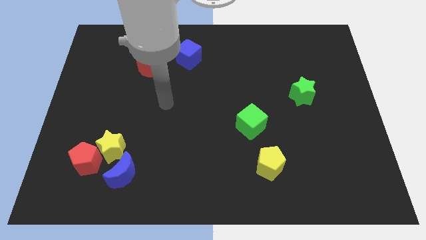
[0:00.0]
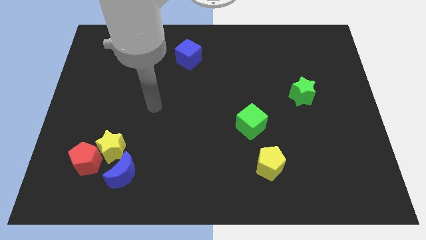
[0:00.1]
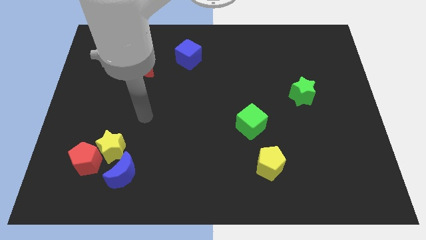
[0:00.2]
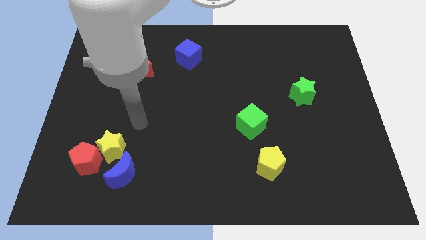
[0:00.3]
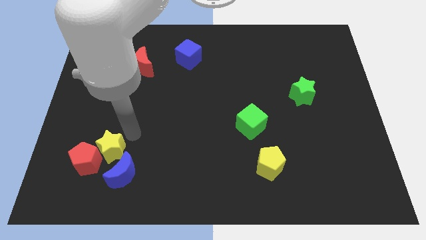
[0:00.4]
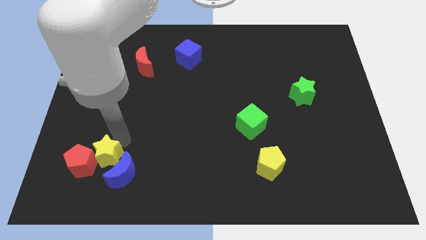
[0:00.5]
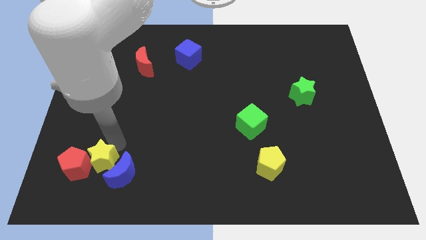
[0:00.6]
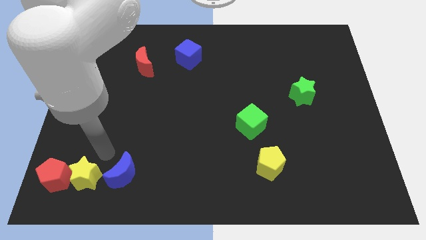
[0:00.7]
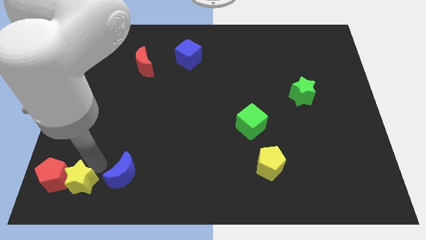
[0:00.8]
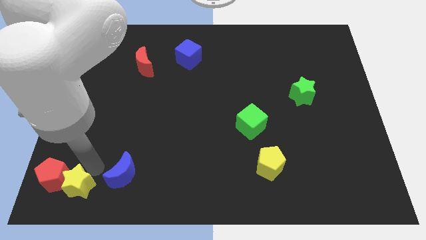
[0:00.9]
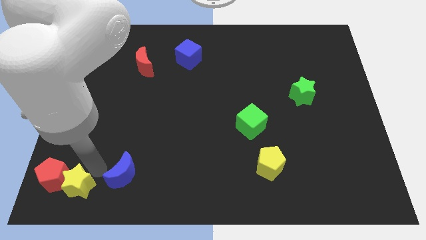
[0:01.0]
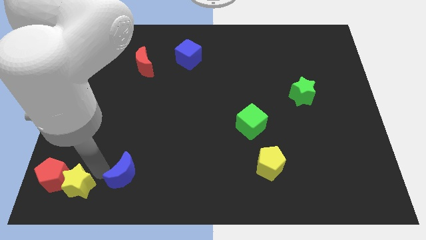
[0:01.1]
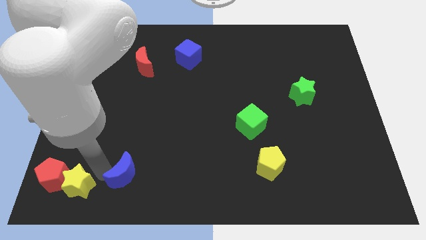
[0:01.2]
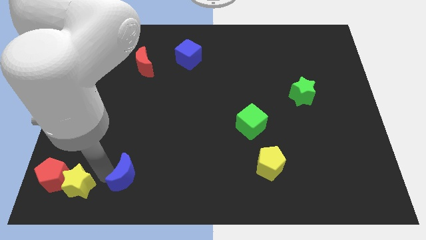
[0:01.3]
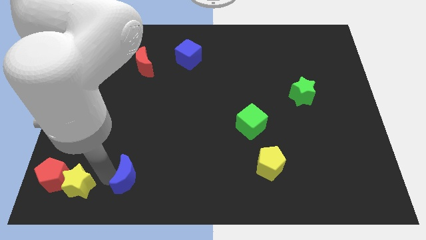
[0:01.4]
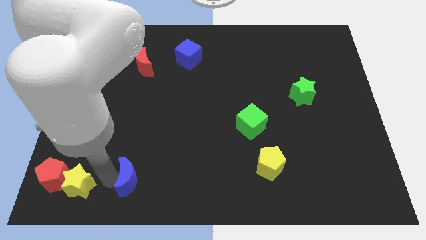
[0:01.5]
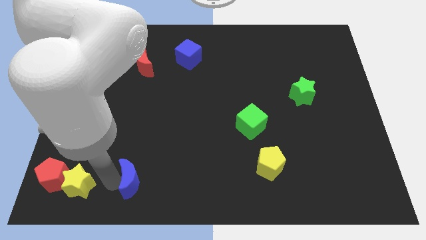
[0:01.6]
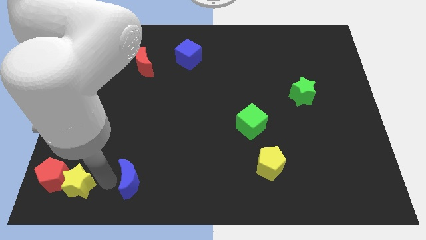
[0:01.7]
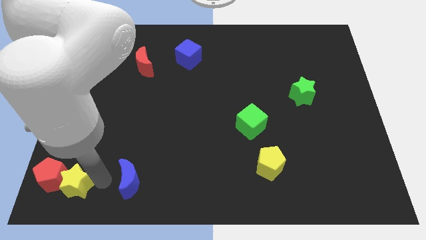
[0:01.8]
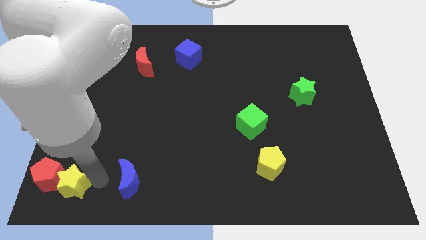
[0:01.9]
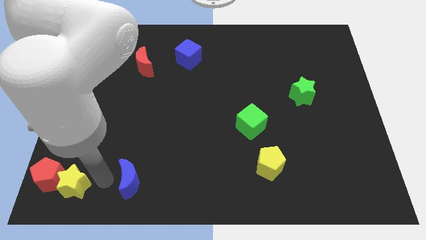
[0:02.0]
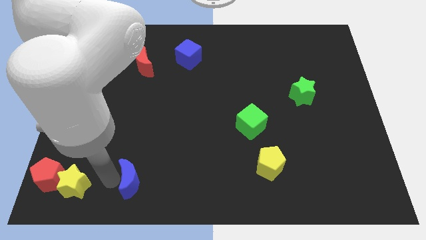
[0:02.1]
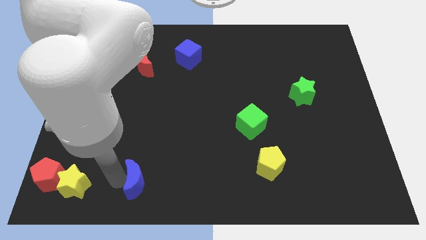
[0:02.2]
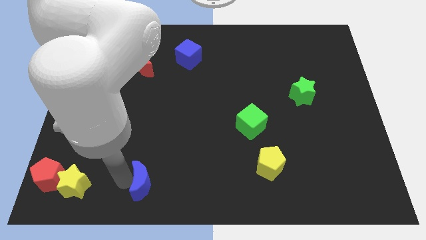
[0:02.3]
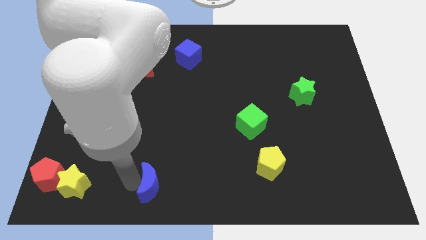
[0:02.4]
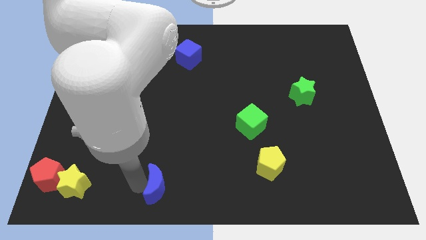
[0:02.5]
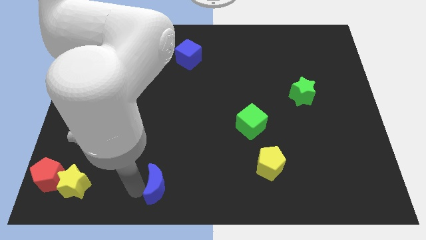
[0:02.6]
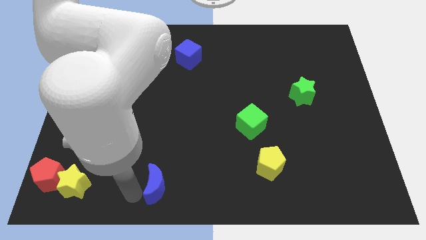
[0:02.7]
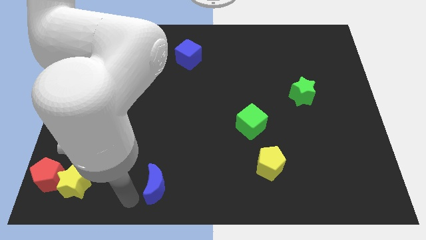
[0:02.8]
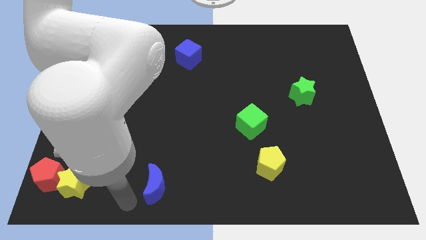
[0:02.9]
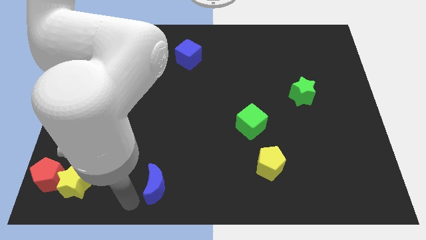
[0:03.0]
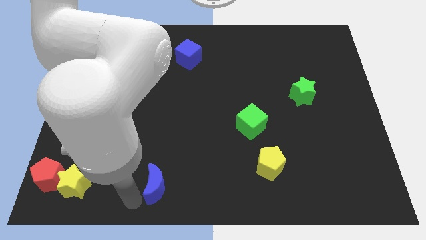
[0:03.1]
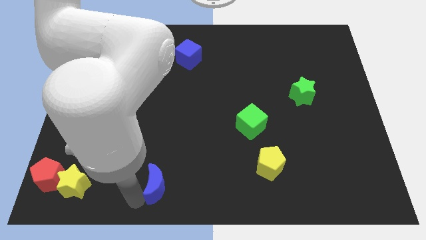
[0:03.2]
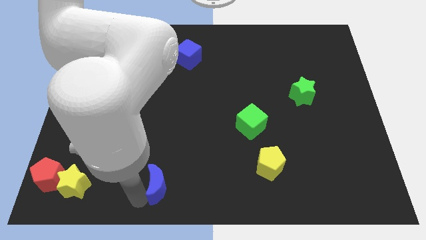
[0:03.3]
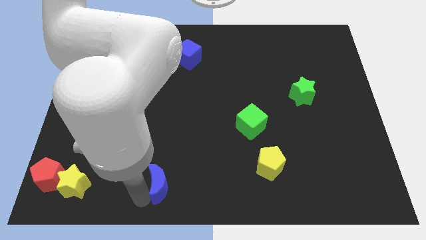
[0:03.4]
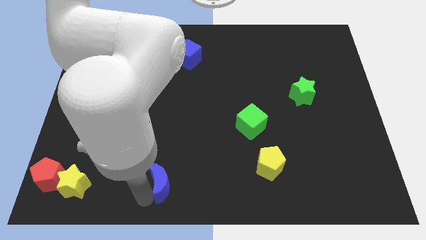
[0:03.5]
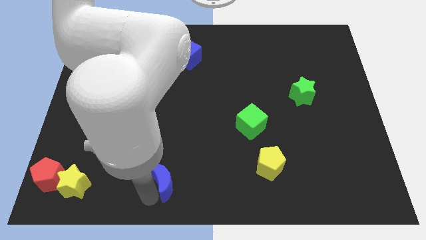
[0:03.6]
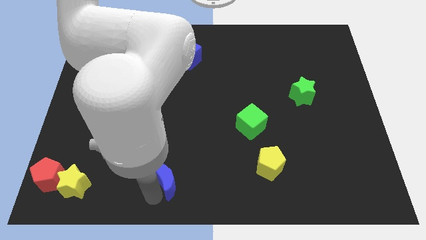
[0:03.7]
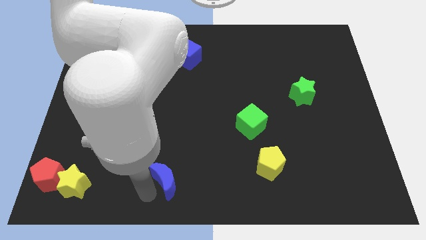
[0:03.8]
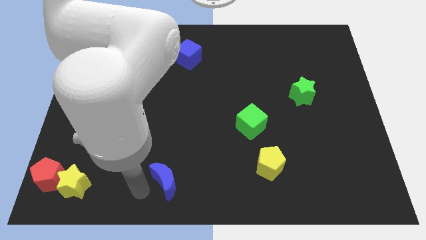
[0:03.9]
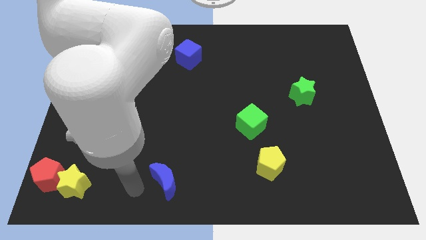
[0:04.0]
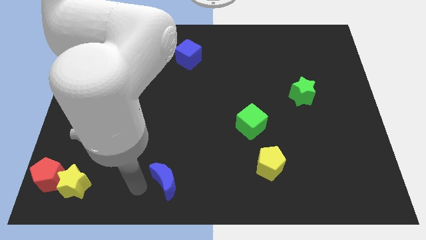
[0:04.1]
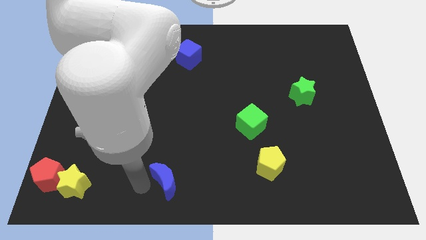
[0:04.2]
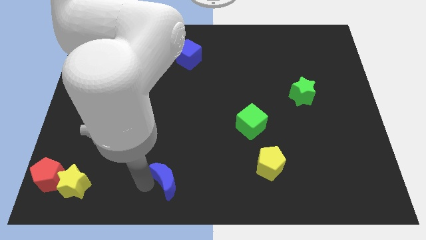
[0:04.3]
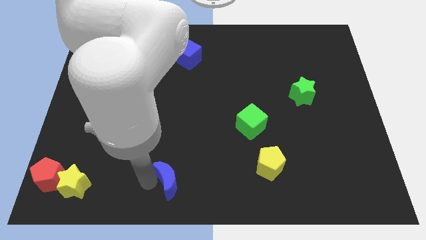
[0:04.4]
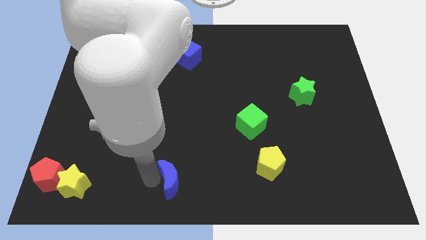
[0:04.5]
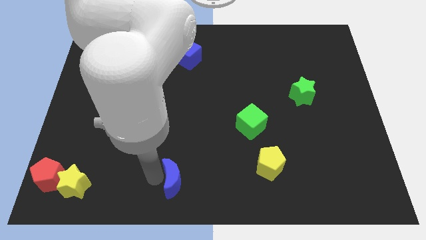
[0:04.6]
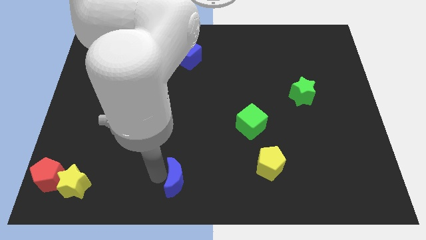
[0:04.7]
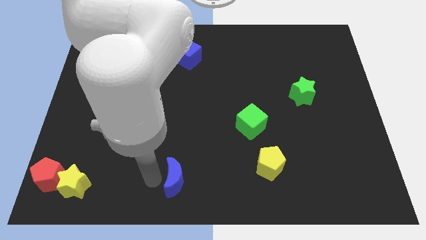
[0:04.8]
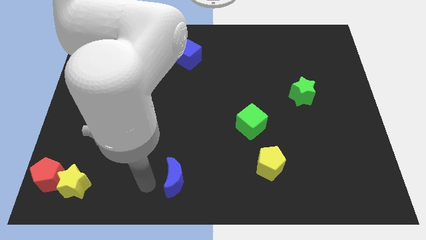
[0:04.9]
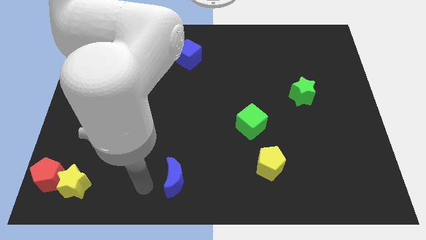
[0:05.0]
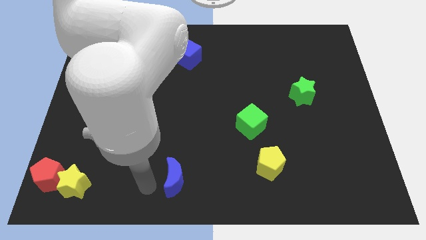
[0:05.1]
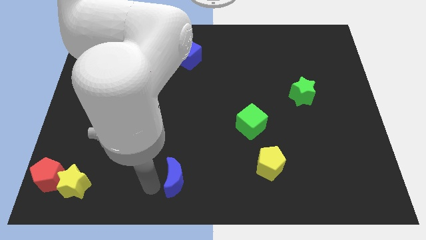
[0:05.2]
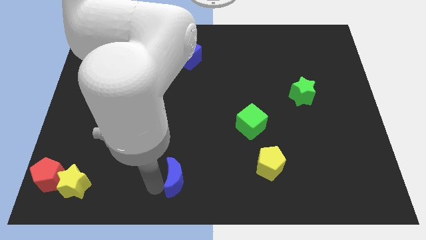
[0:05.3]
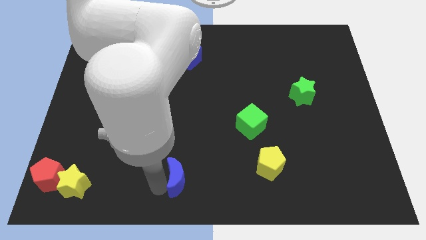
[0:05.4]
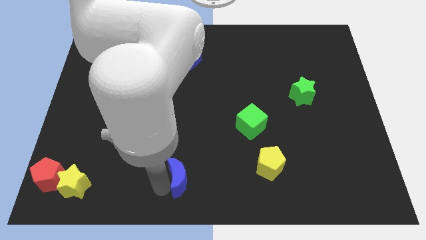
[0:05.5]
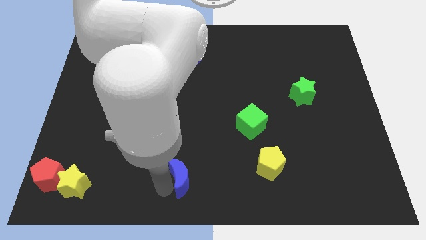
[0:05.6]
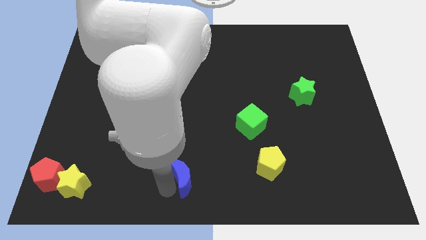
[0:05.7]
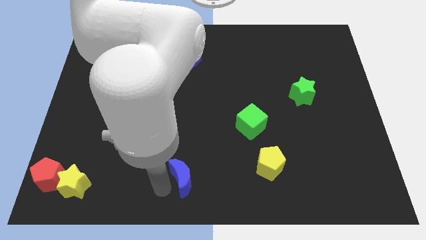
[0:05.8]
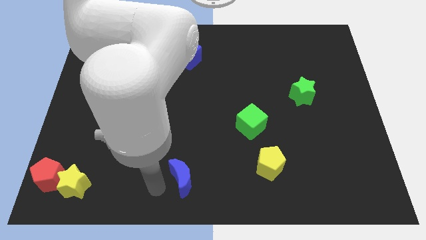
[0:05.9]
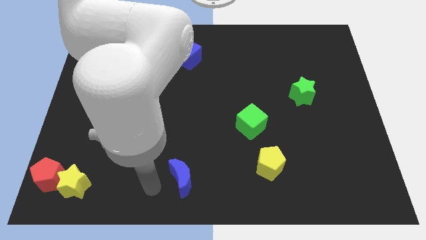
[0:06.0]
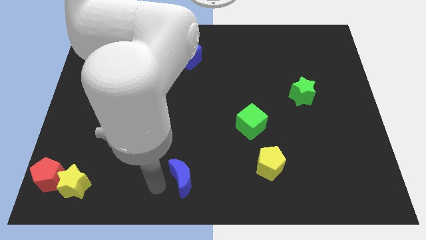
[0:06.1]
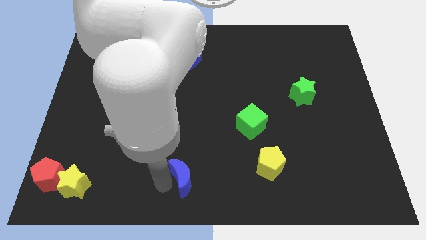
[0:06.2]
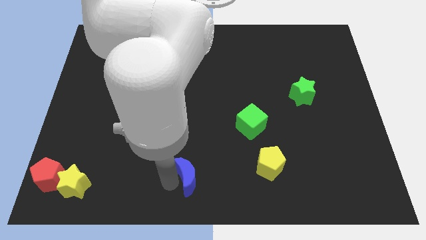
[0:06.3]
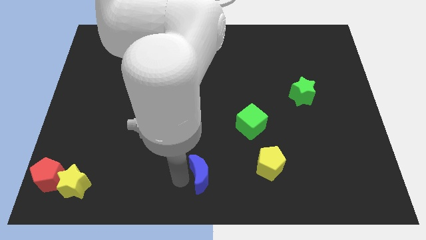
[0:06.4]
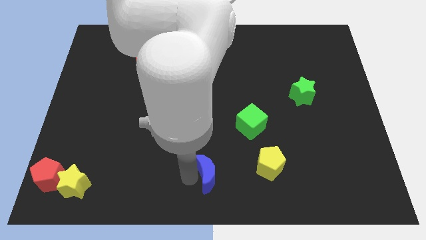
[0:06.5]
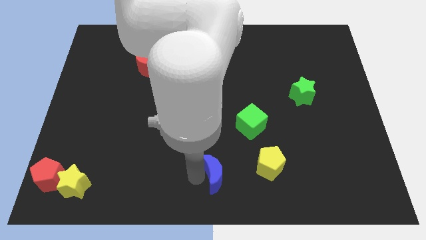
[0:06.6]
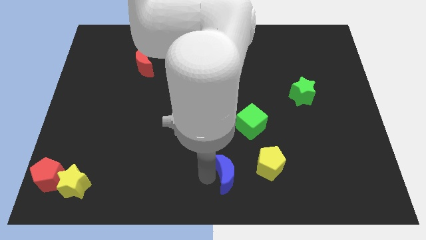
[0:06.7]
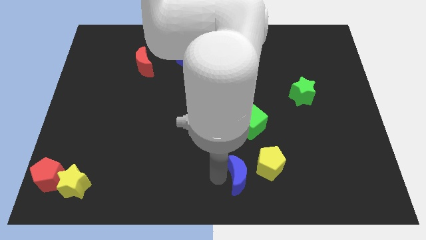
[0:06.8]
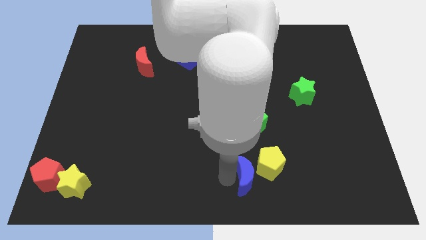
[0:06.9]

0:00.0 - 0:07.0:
push the blue moon towards the yellow pentagon

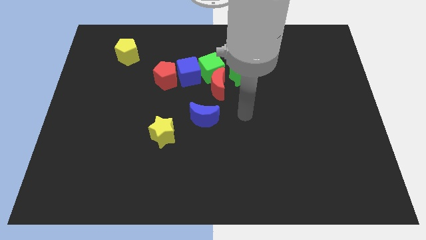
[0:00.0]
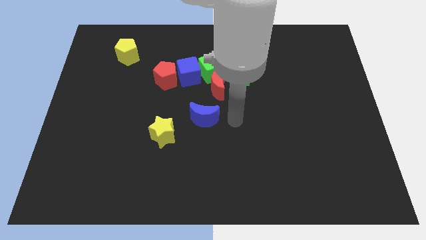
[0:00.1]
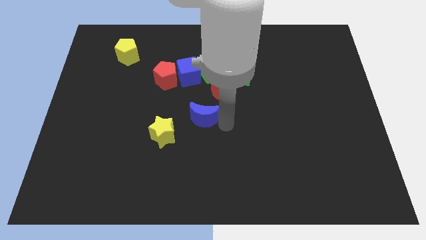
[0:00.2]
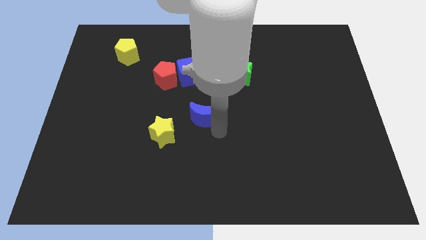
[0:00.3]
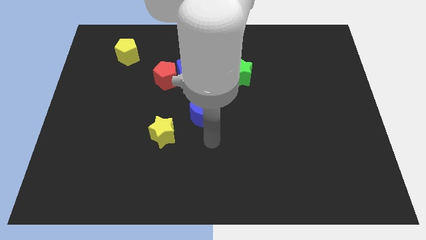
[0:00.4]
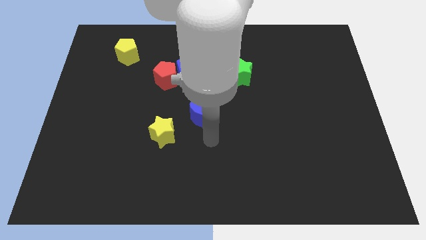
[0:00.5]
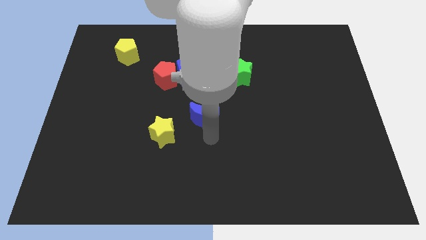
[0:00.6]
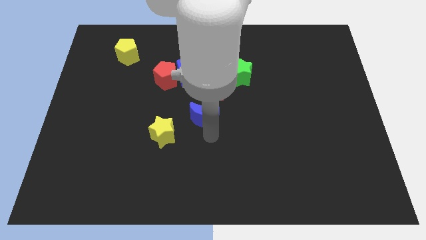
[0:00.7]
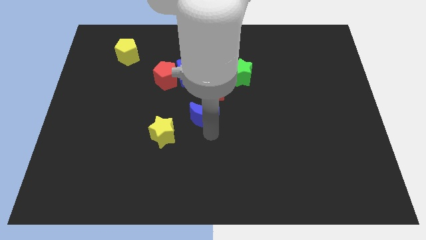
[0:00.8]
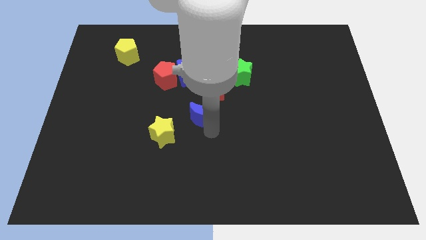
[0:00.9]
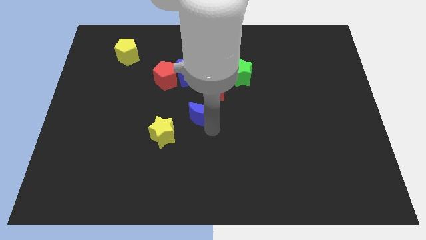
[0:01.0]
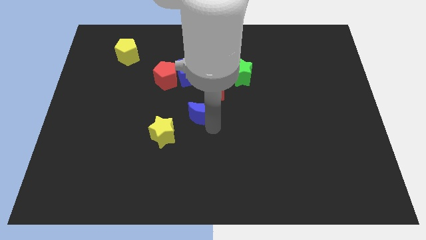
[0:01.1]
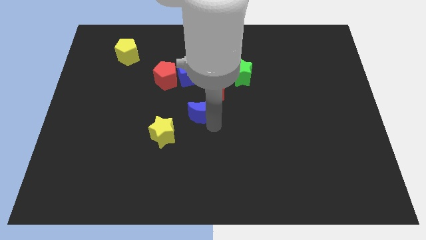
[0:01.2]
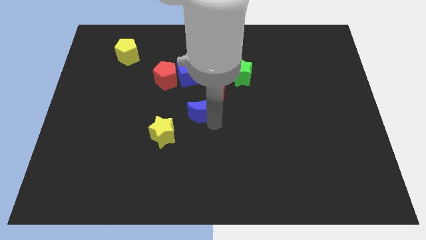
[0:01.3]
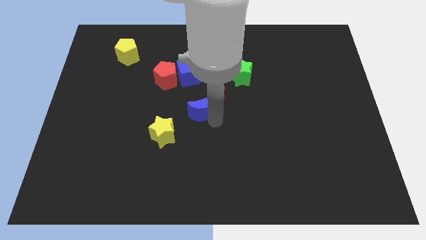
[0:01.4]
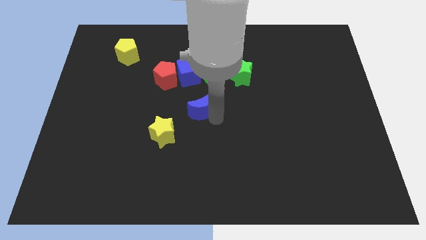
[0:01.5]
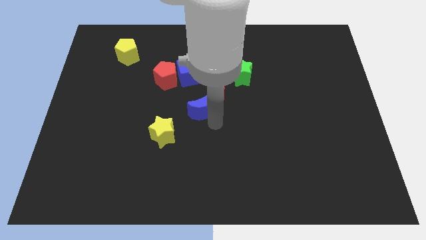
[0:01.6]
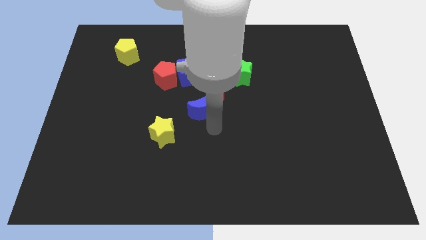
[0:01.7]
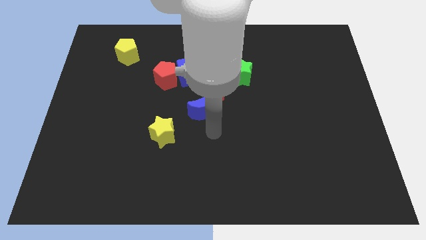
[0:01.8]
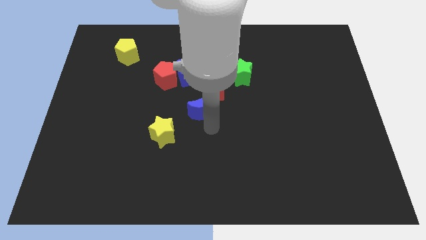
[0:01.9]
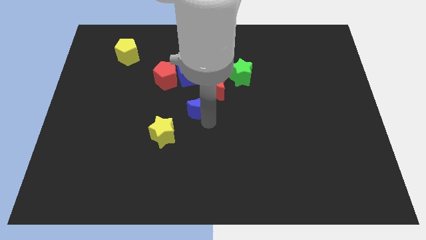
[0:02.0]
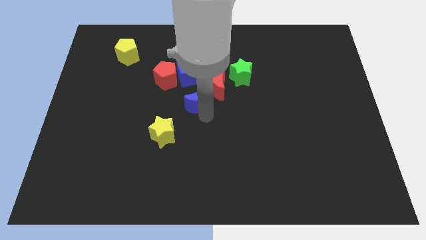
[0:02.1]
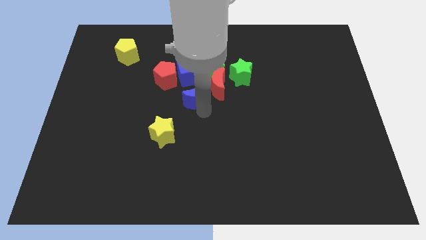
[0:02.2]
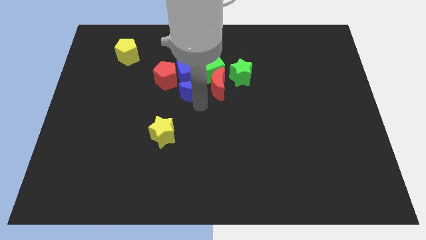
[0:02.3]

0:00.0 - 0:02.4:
slide the blue moon towards the blue cube
